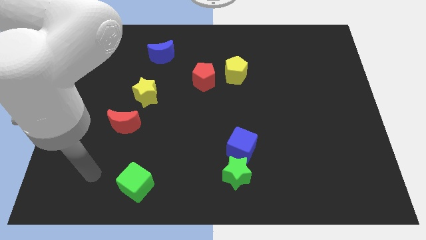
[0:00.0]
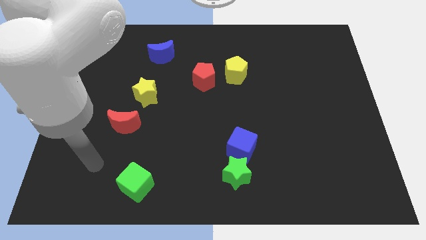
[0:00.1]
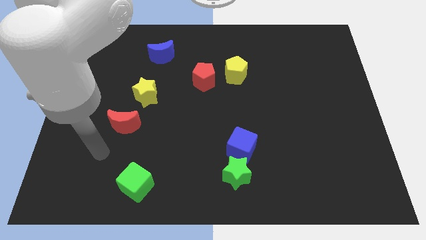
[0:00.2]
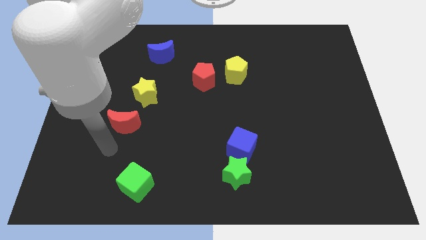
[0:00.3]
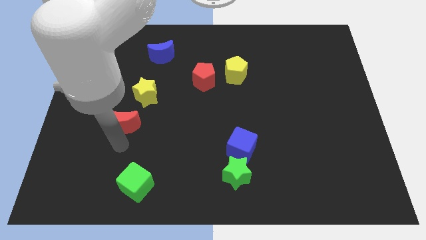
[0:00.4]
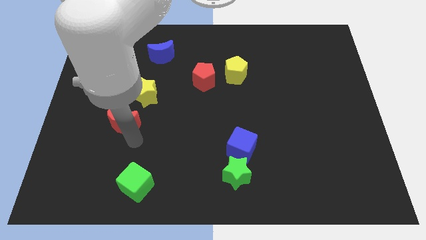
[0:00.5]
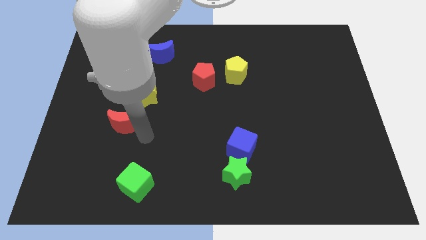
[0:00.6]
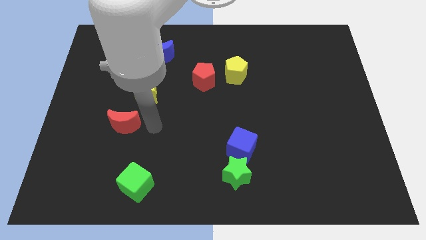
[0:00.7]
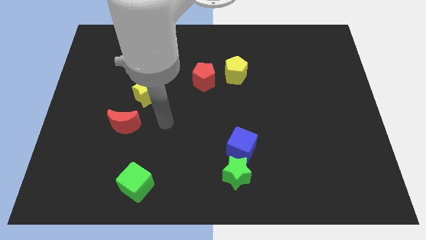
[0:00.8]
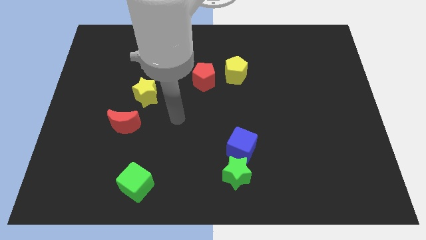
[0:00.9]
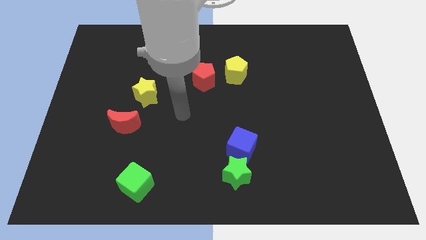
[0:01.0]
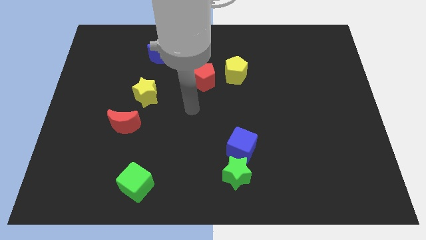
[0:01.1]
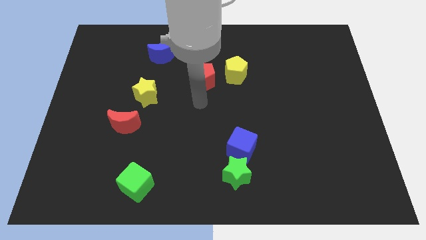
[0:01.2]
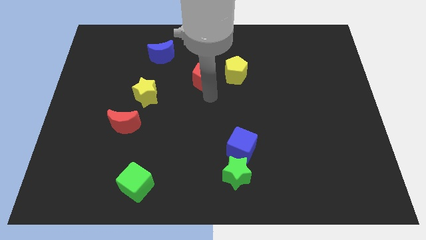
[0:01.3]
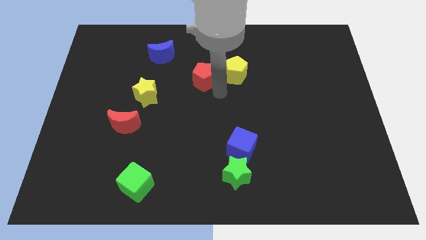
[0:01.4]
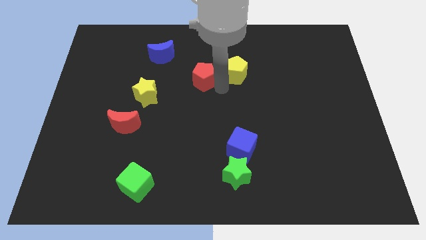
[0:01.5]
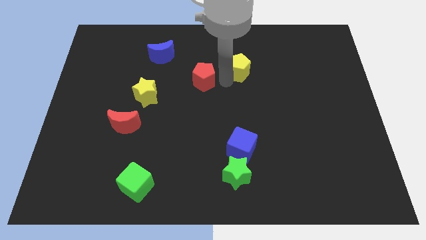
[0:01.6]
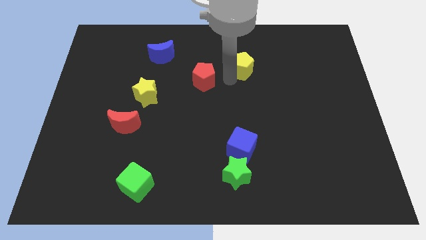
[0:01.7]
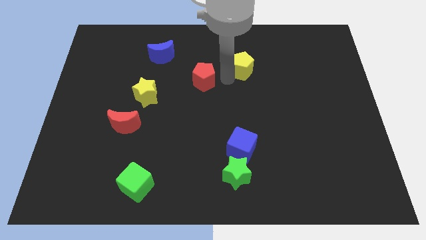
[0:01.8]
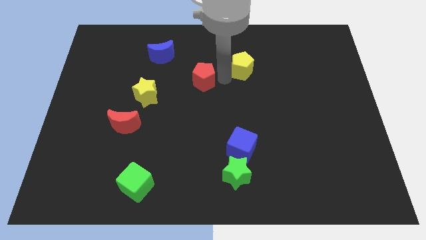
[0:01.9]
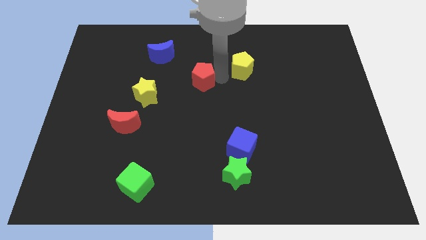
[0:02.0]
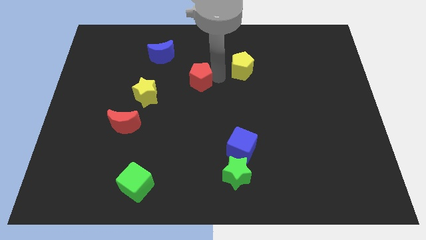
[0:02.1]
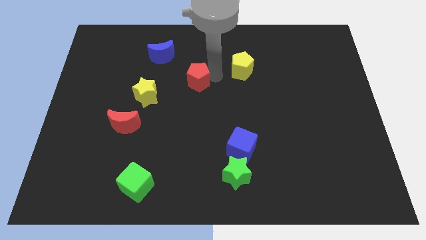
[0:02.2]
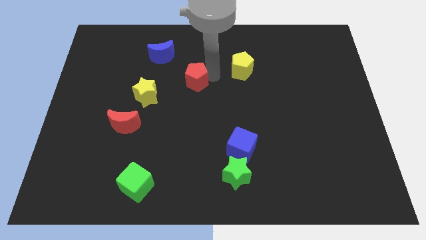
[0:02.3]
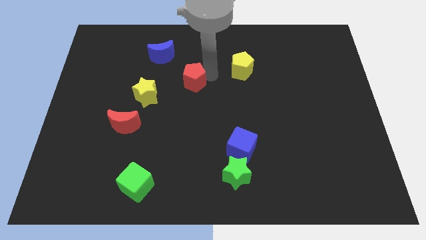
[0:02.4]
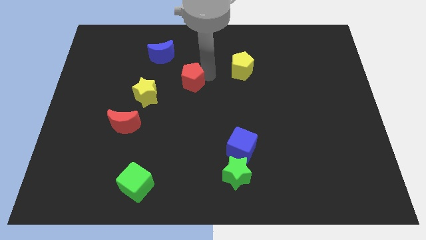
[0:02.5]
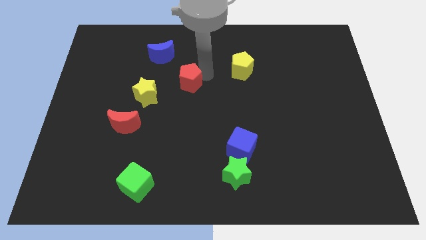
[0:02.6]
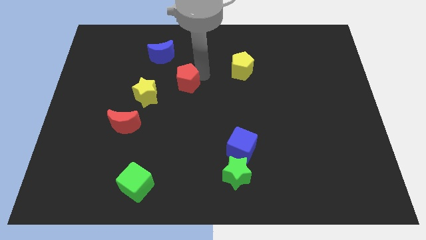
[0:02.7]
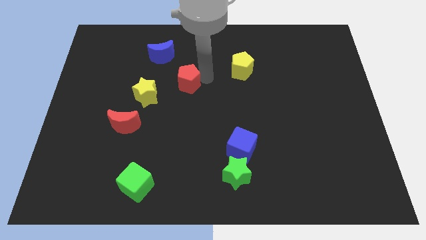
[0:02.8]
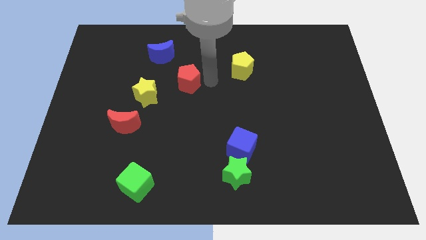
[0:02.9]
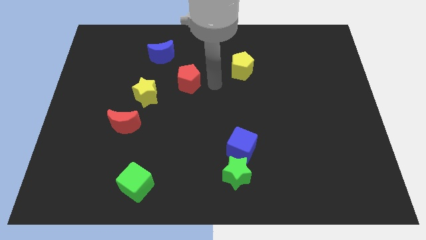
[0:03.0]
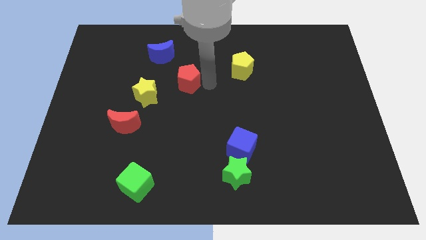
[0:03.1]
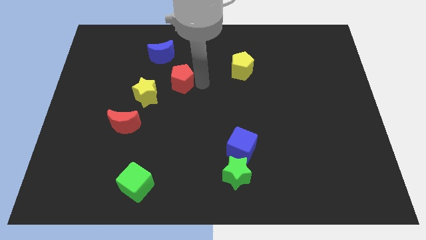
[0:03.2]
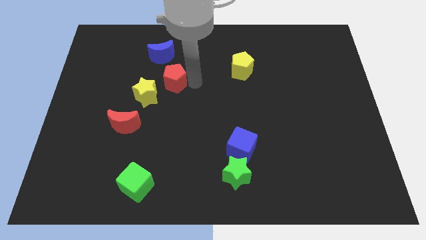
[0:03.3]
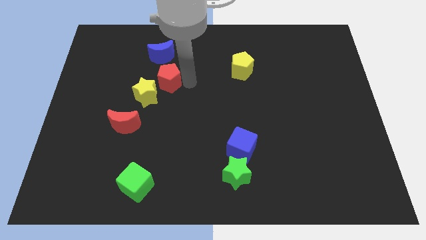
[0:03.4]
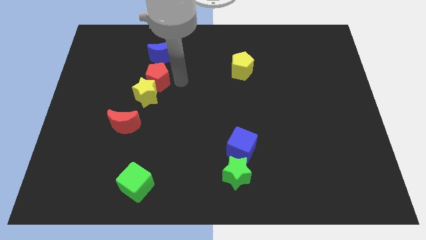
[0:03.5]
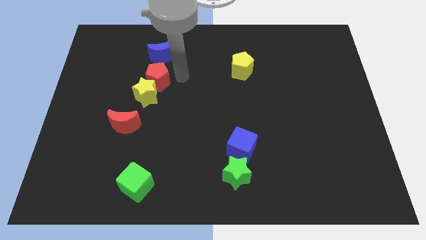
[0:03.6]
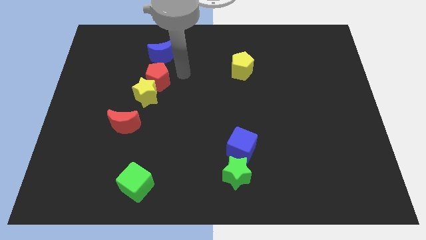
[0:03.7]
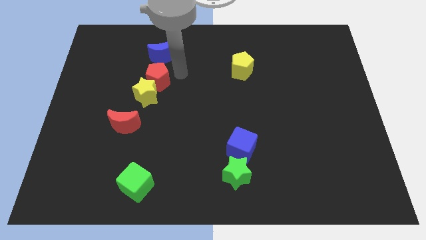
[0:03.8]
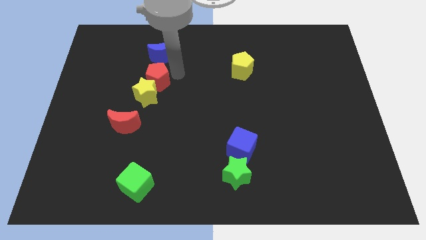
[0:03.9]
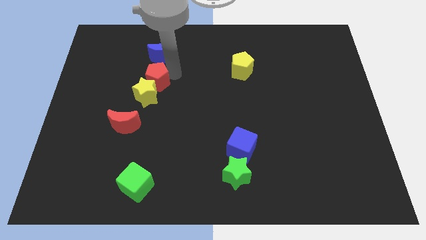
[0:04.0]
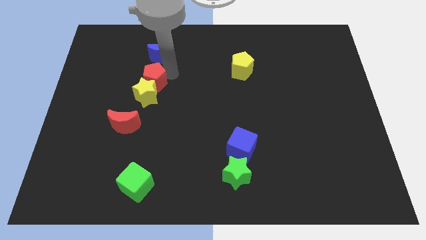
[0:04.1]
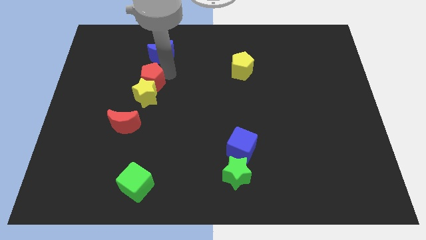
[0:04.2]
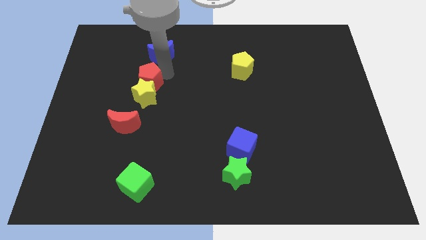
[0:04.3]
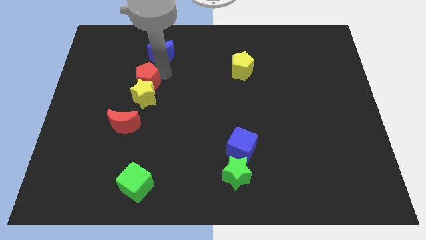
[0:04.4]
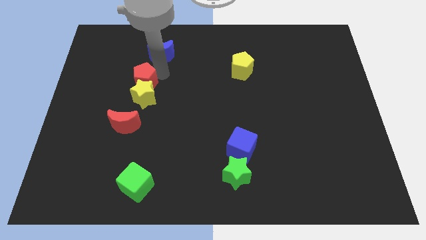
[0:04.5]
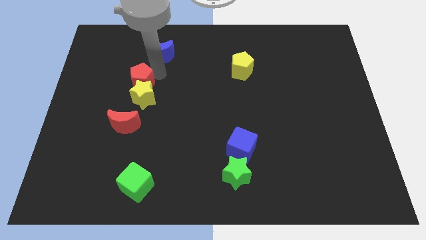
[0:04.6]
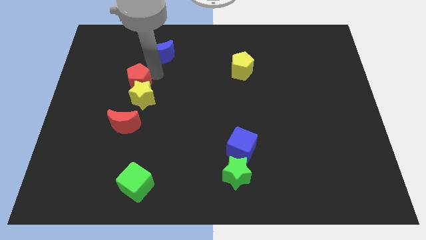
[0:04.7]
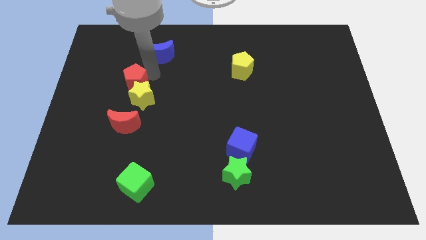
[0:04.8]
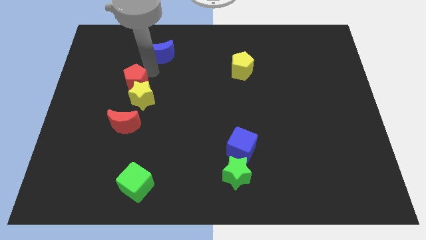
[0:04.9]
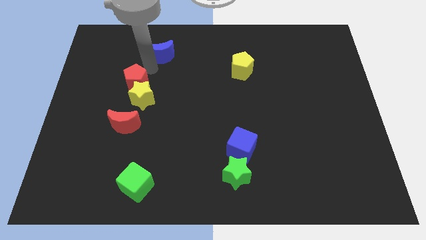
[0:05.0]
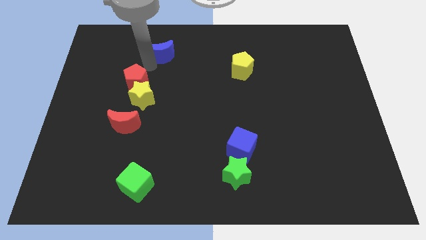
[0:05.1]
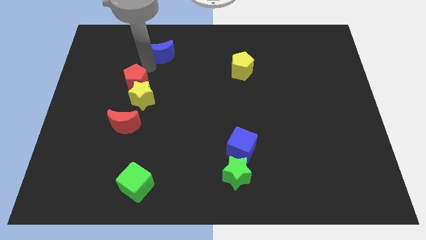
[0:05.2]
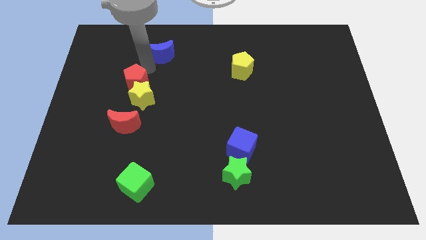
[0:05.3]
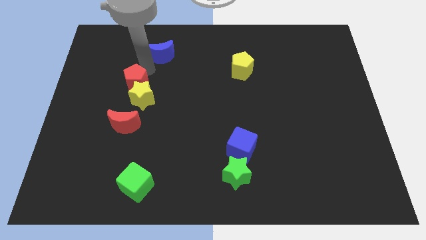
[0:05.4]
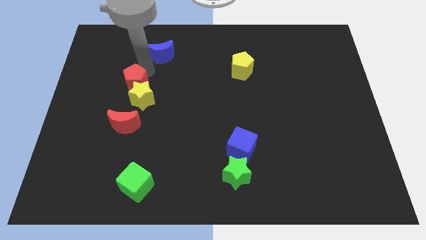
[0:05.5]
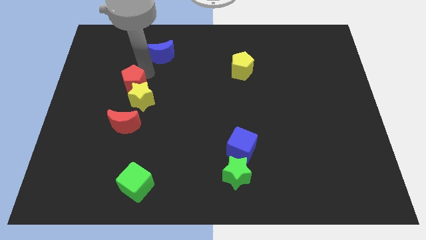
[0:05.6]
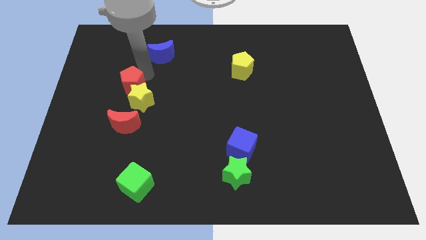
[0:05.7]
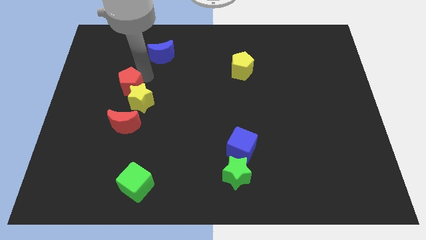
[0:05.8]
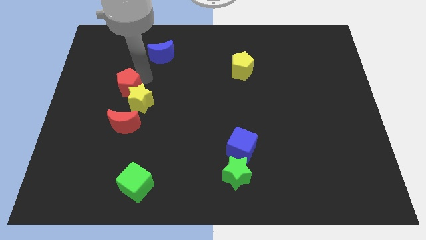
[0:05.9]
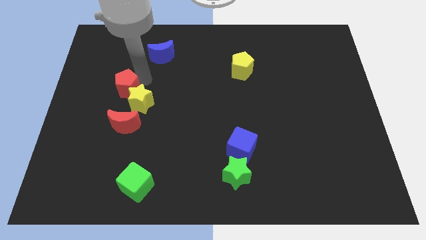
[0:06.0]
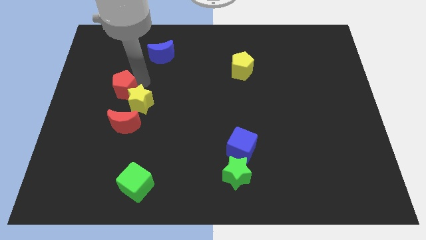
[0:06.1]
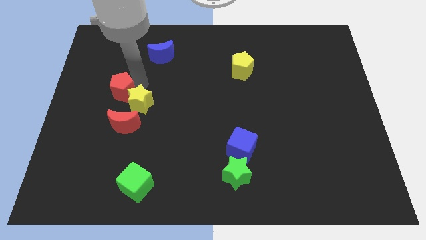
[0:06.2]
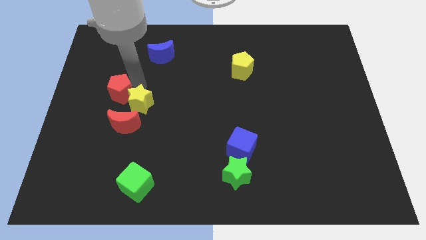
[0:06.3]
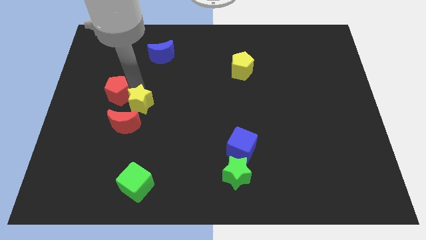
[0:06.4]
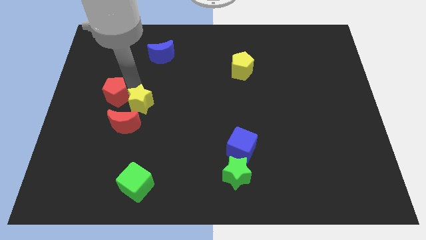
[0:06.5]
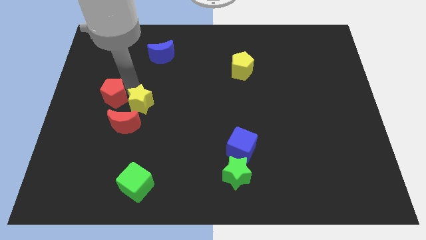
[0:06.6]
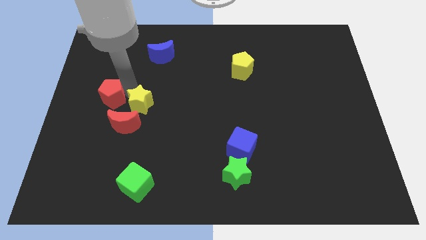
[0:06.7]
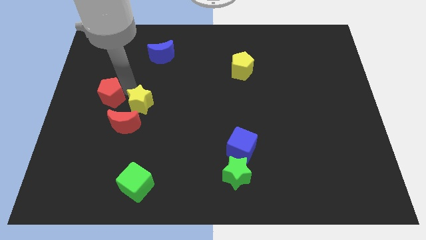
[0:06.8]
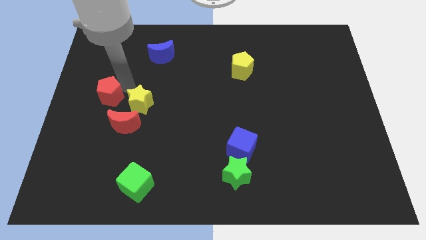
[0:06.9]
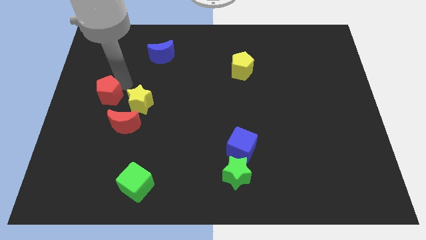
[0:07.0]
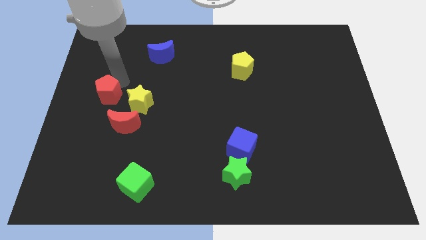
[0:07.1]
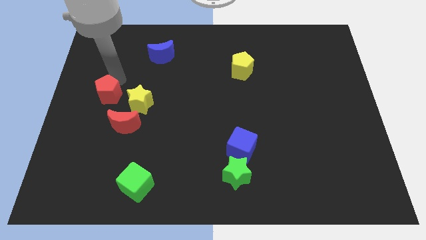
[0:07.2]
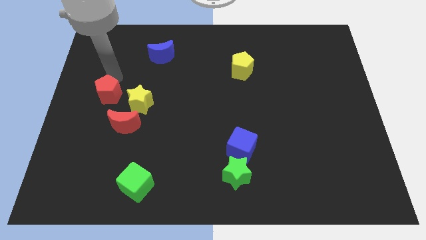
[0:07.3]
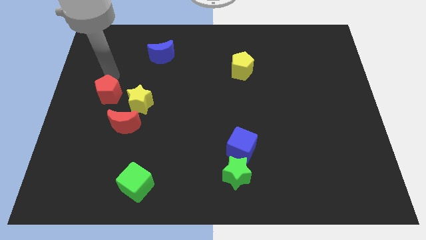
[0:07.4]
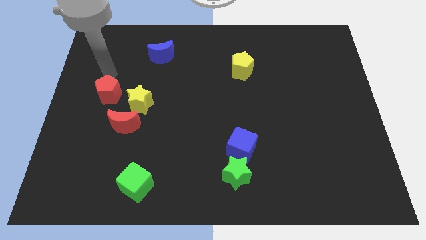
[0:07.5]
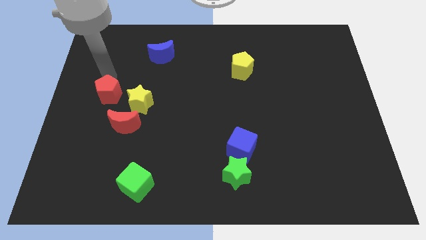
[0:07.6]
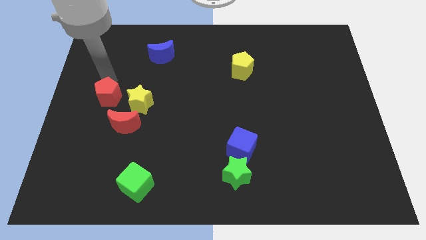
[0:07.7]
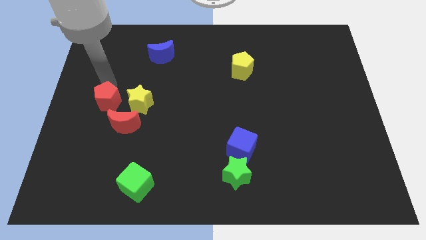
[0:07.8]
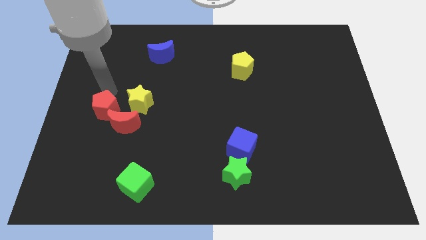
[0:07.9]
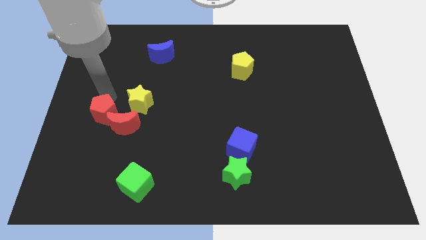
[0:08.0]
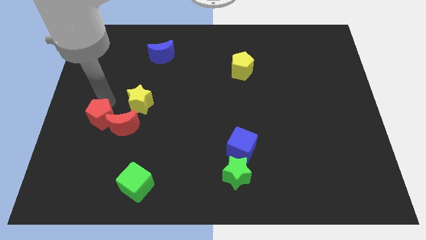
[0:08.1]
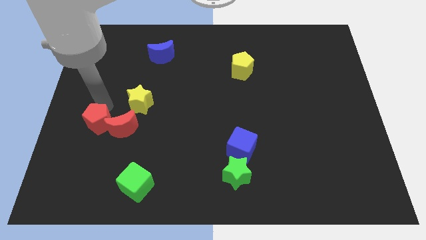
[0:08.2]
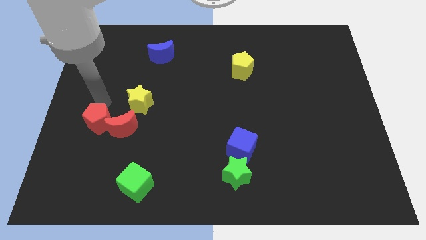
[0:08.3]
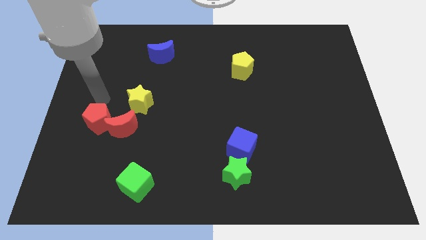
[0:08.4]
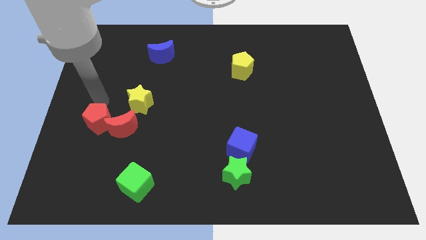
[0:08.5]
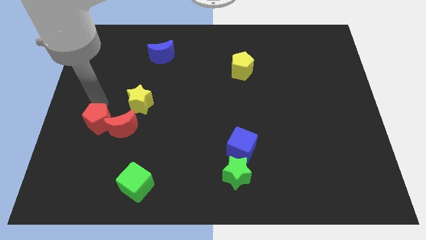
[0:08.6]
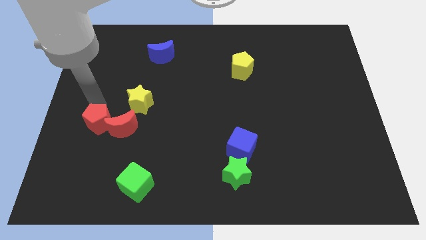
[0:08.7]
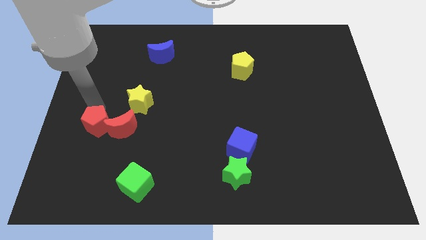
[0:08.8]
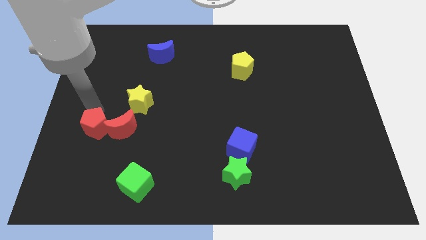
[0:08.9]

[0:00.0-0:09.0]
put the red pentagon to the bottom left of the red moon
